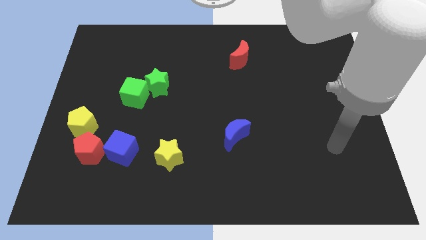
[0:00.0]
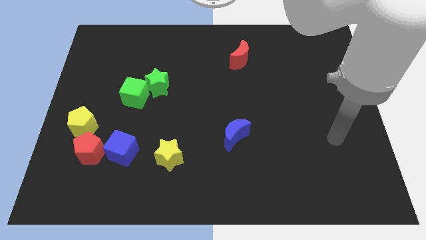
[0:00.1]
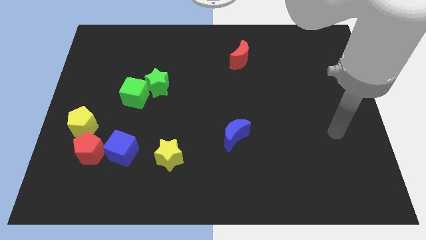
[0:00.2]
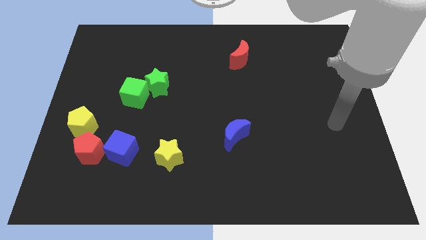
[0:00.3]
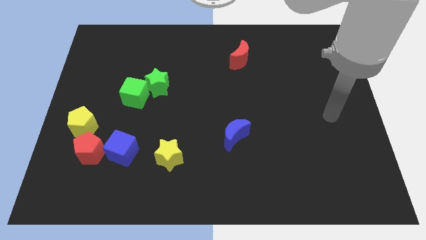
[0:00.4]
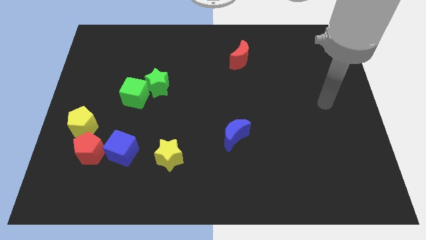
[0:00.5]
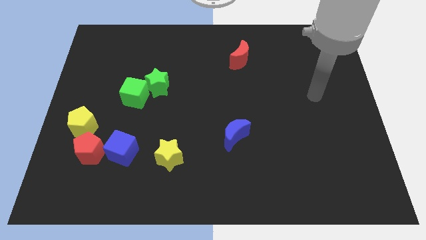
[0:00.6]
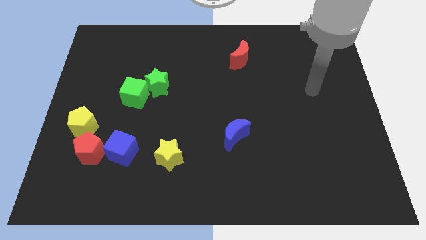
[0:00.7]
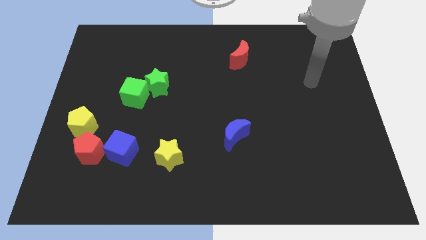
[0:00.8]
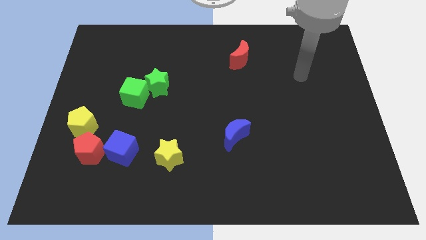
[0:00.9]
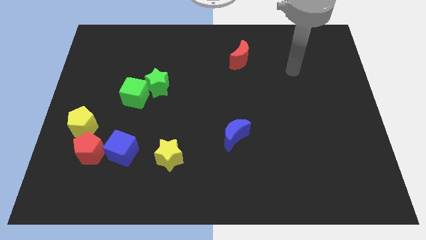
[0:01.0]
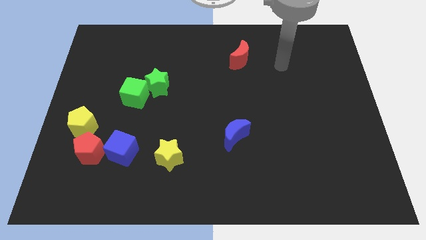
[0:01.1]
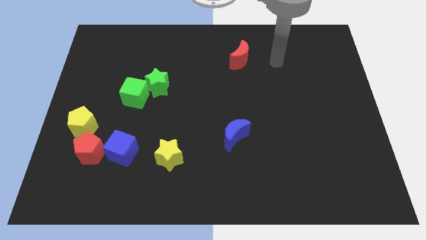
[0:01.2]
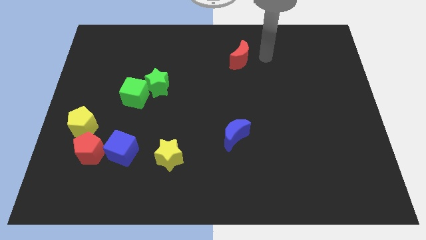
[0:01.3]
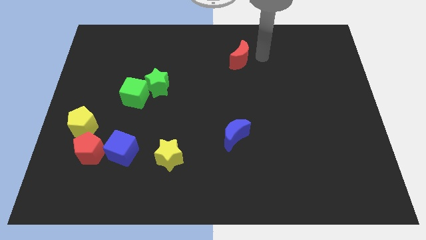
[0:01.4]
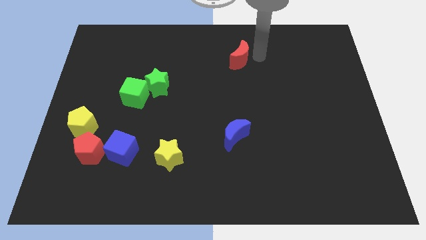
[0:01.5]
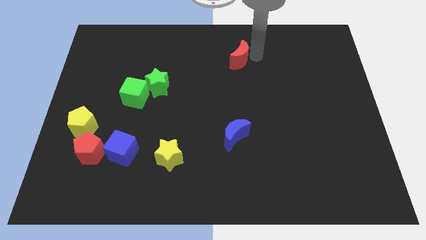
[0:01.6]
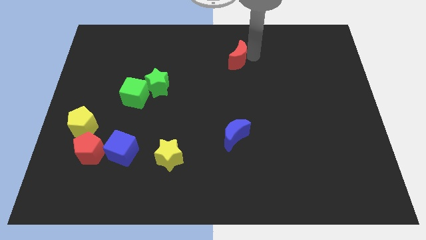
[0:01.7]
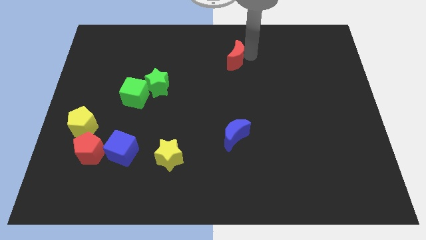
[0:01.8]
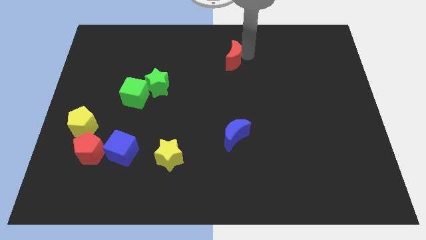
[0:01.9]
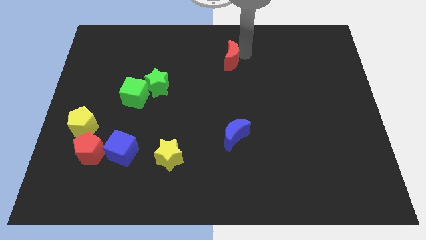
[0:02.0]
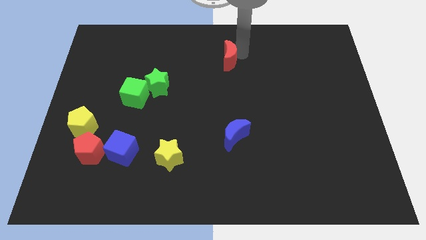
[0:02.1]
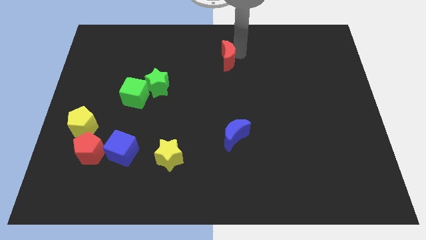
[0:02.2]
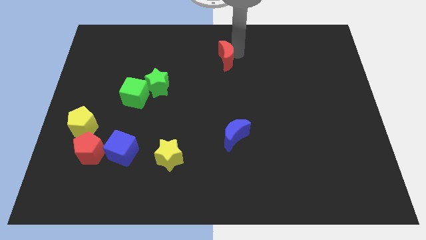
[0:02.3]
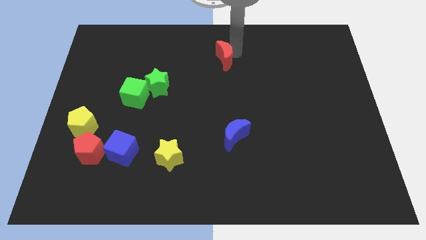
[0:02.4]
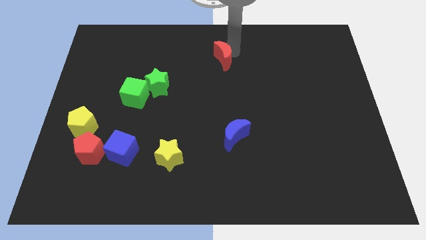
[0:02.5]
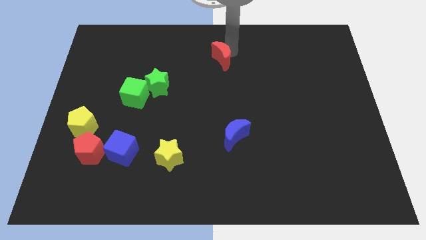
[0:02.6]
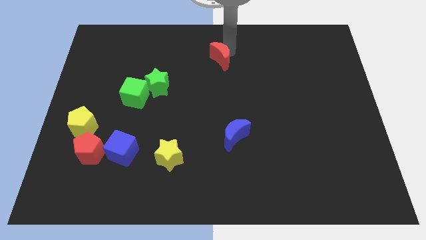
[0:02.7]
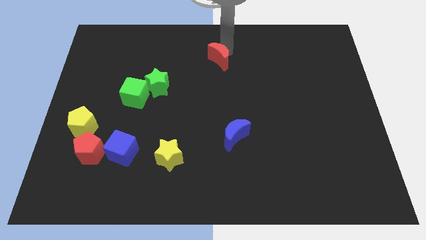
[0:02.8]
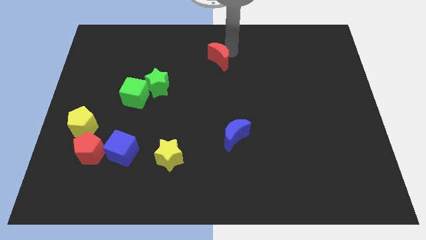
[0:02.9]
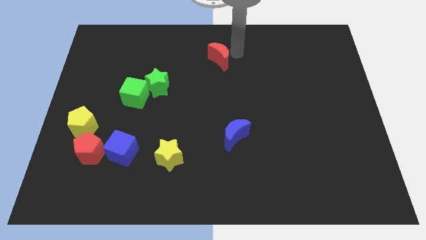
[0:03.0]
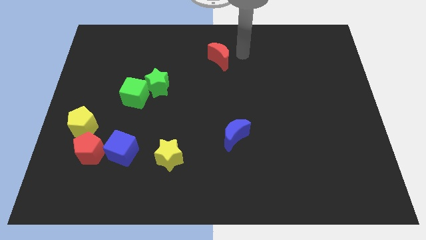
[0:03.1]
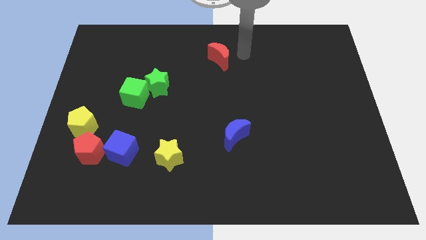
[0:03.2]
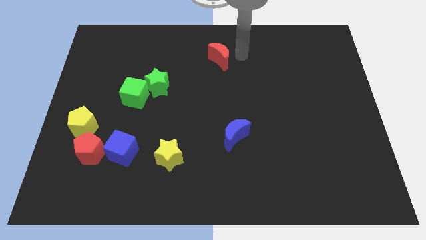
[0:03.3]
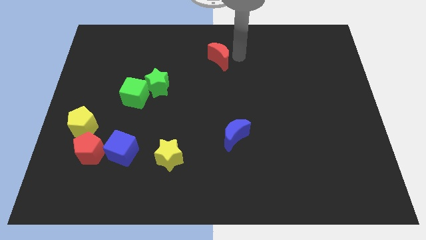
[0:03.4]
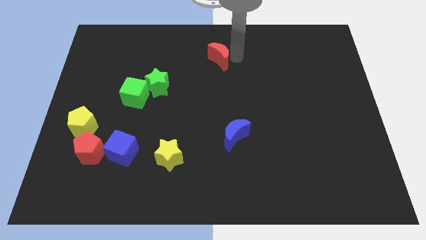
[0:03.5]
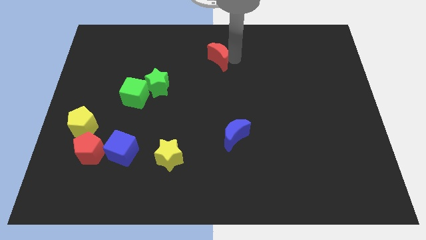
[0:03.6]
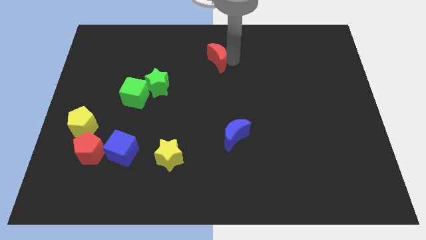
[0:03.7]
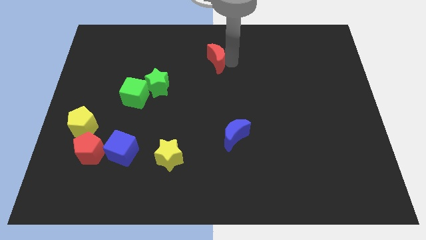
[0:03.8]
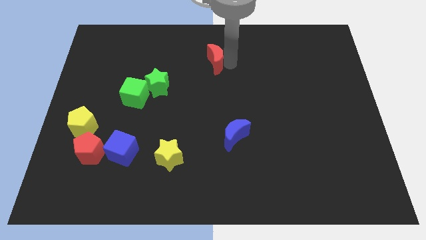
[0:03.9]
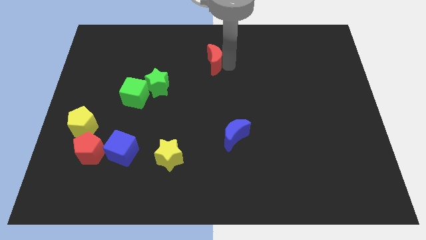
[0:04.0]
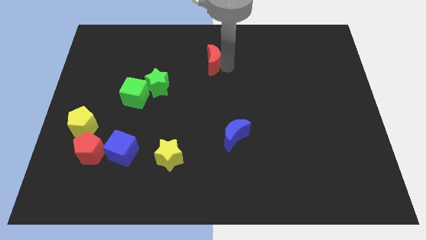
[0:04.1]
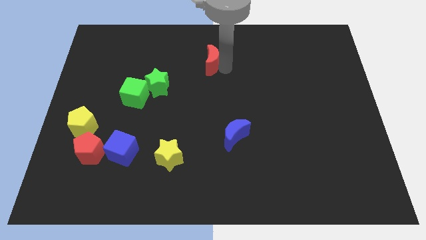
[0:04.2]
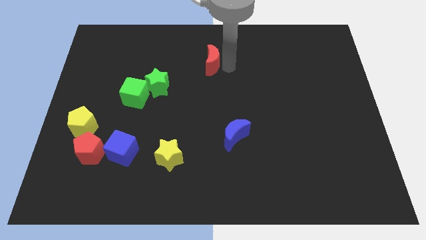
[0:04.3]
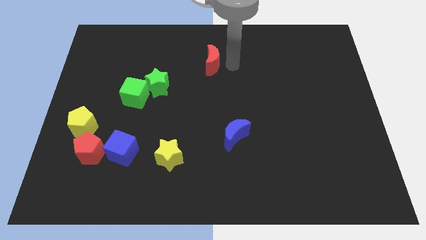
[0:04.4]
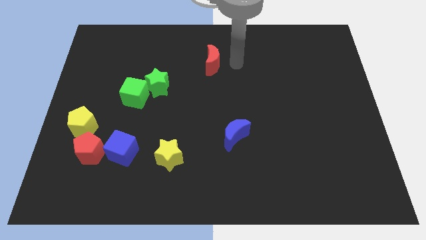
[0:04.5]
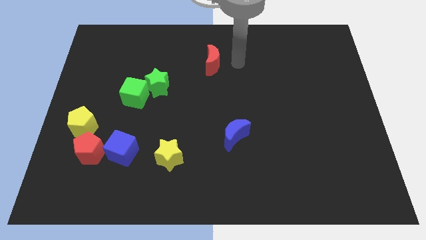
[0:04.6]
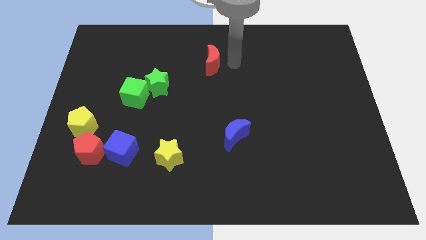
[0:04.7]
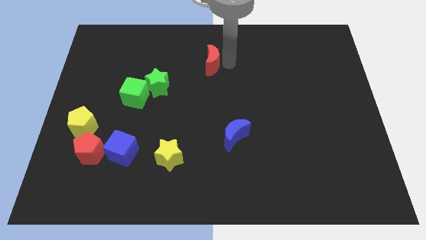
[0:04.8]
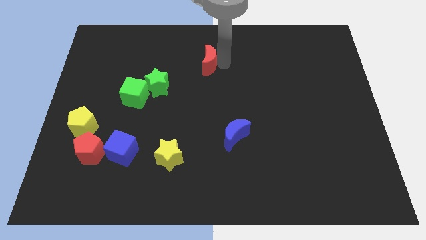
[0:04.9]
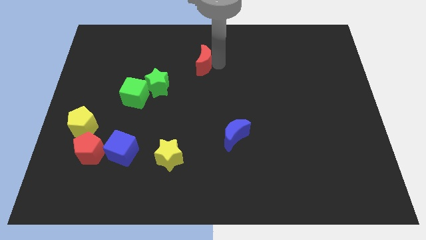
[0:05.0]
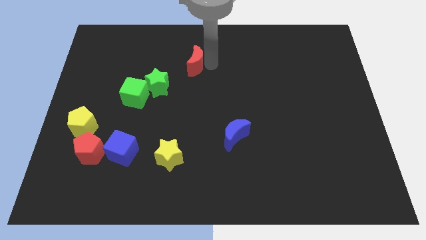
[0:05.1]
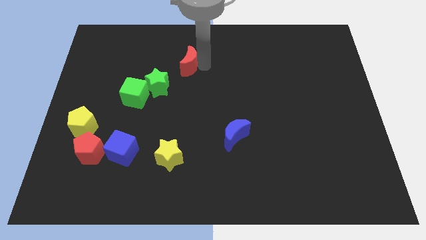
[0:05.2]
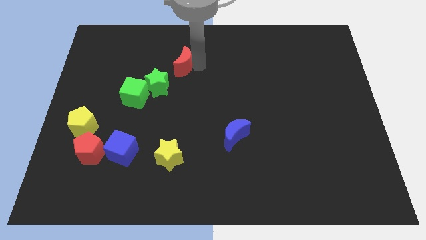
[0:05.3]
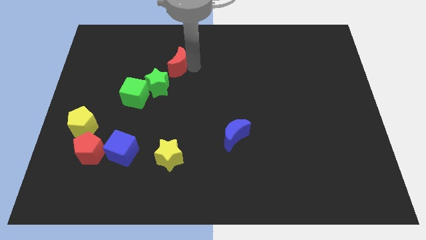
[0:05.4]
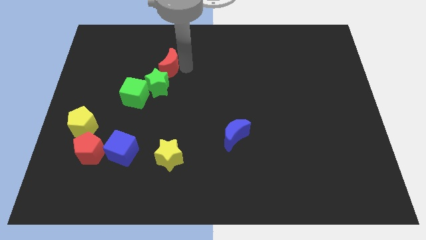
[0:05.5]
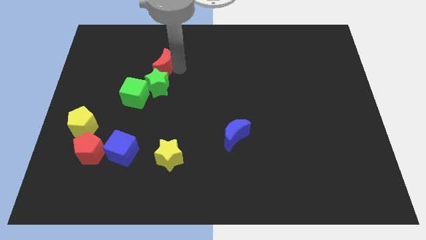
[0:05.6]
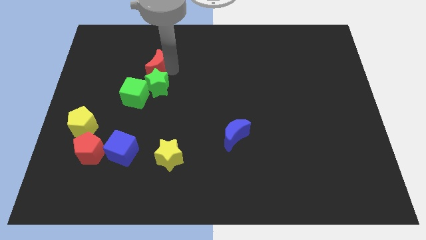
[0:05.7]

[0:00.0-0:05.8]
move the red moon to the left

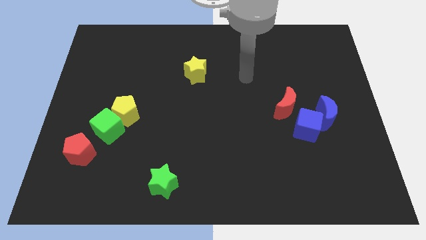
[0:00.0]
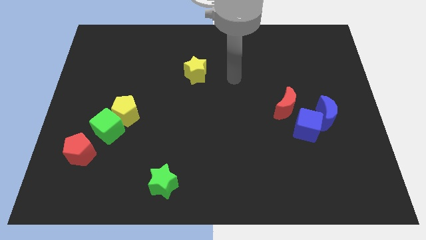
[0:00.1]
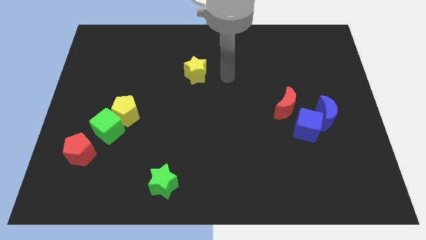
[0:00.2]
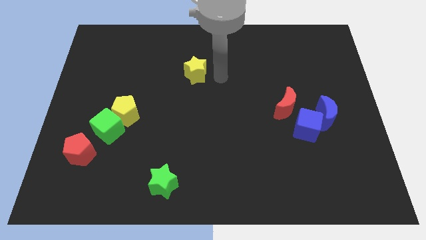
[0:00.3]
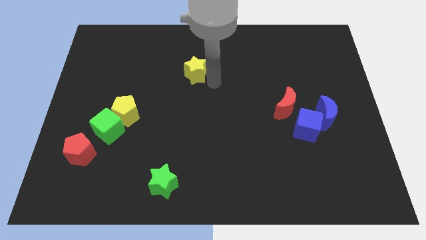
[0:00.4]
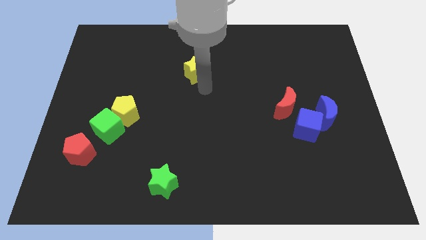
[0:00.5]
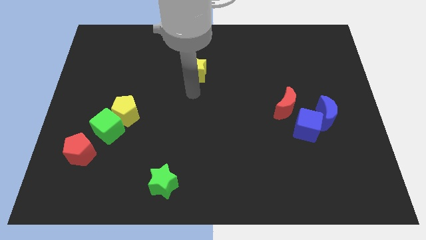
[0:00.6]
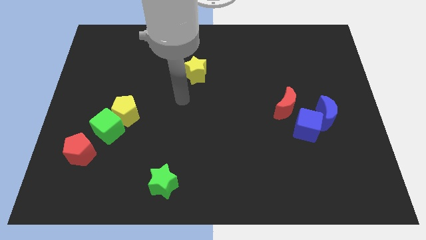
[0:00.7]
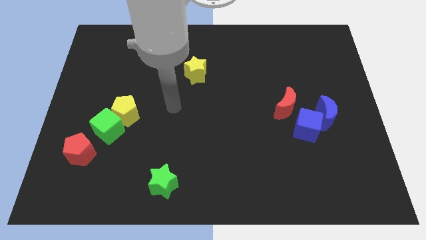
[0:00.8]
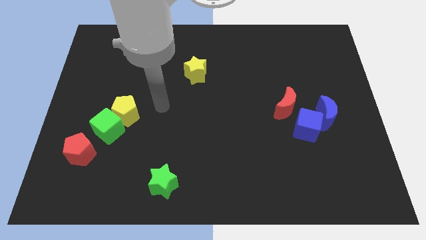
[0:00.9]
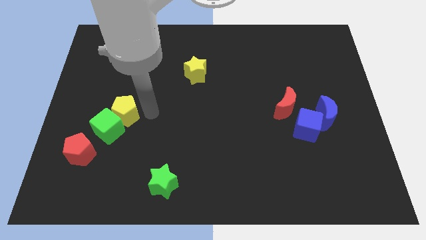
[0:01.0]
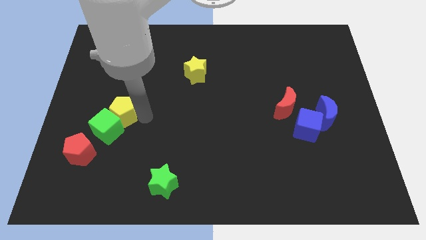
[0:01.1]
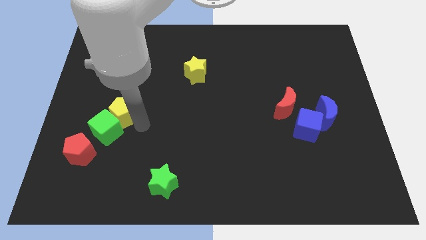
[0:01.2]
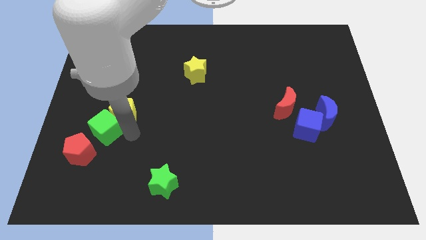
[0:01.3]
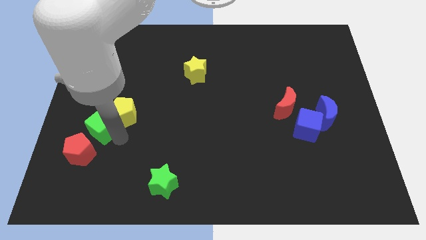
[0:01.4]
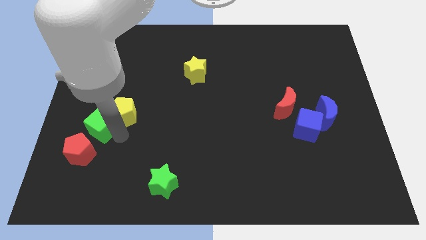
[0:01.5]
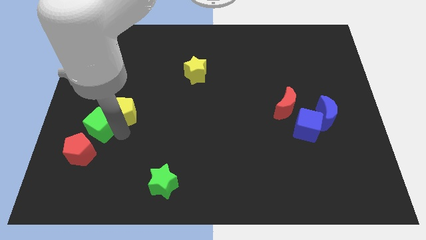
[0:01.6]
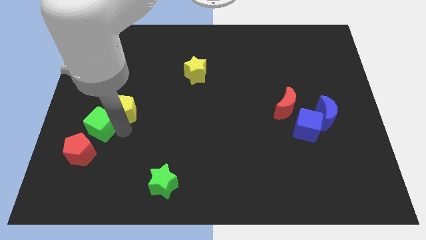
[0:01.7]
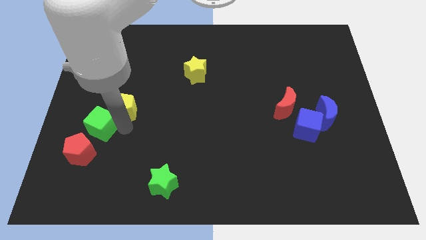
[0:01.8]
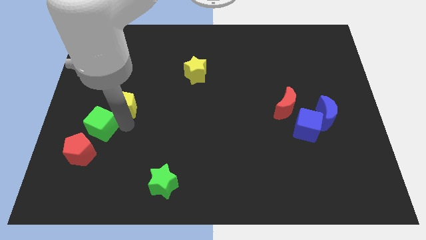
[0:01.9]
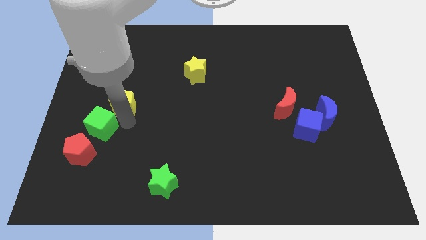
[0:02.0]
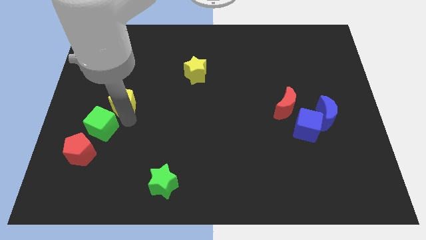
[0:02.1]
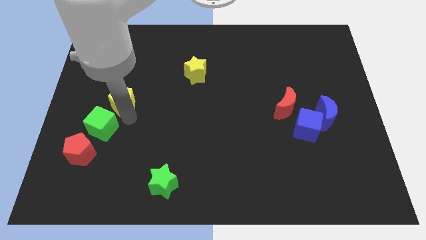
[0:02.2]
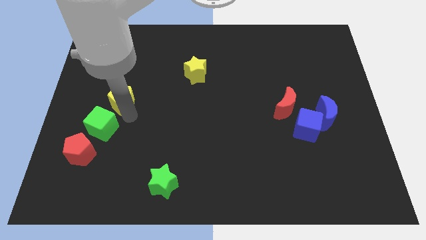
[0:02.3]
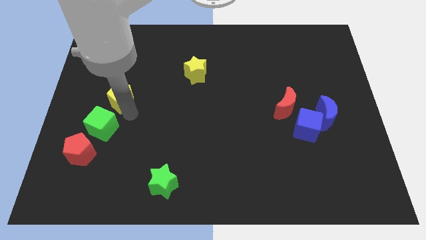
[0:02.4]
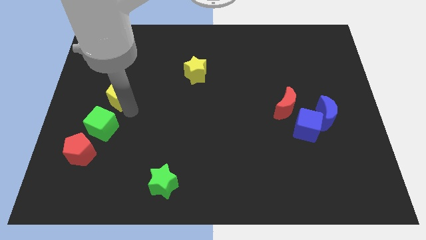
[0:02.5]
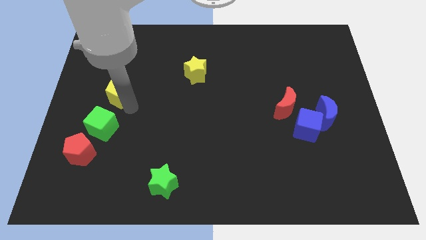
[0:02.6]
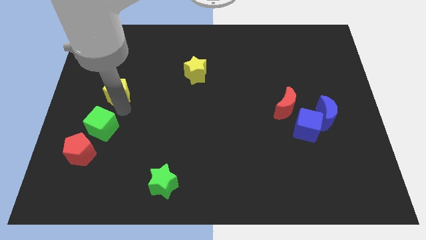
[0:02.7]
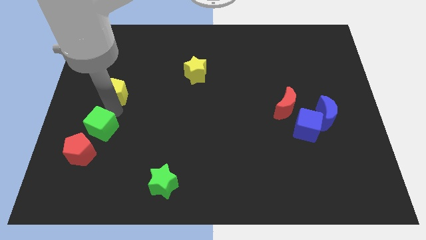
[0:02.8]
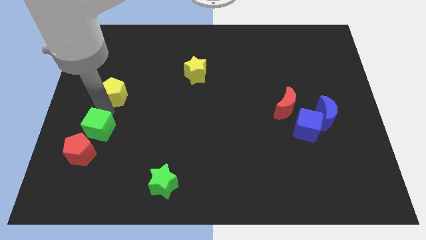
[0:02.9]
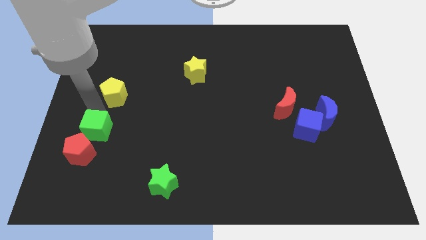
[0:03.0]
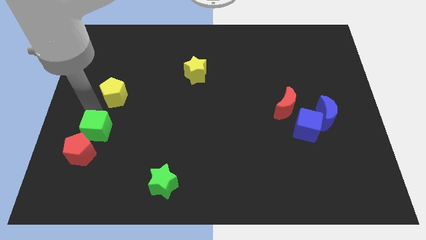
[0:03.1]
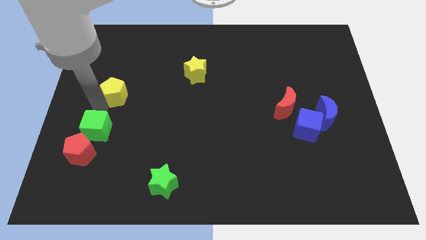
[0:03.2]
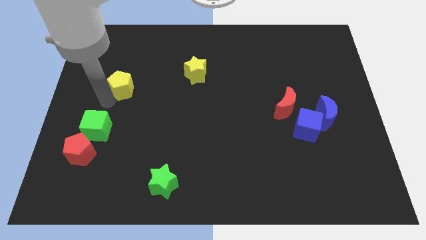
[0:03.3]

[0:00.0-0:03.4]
slightly move the yellow pentagon up
